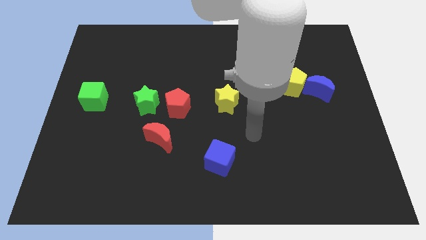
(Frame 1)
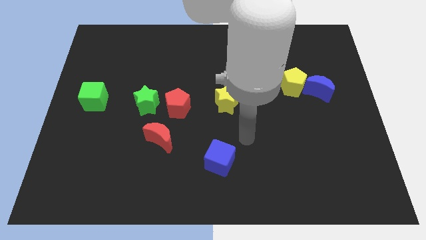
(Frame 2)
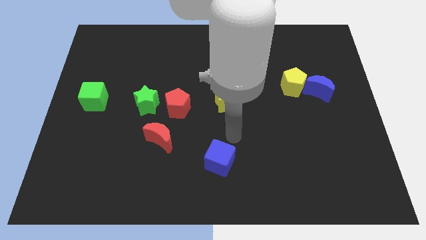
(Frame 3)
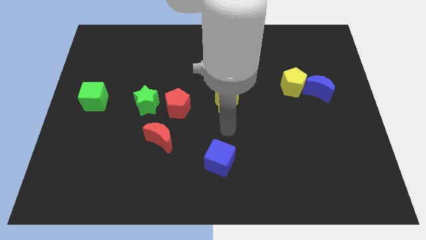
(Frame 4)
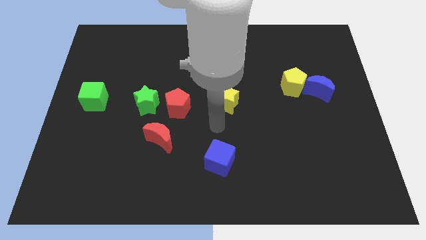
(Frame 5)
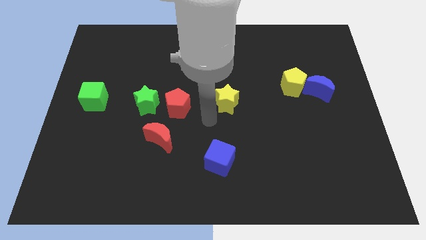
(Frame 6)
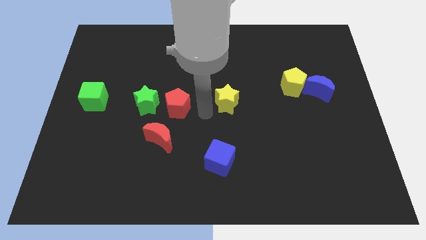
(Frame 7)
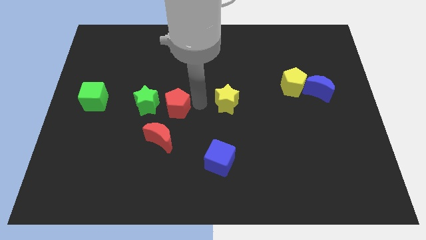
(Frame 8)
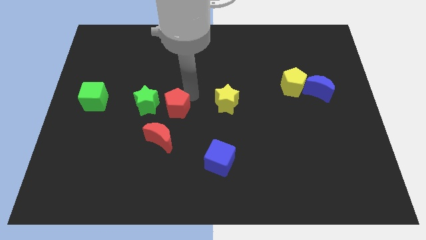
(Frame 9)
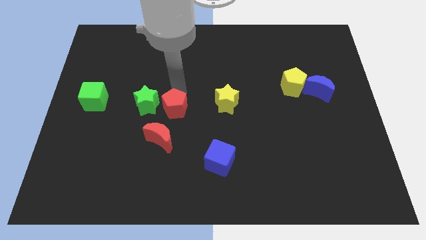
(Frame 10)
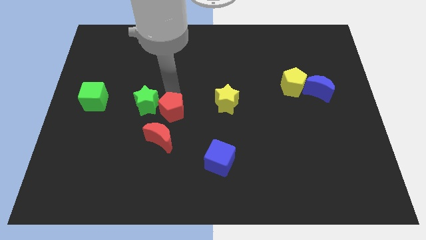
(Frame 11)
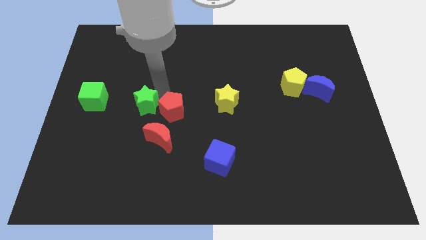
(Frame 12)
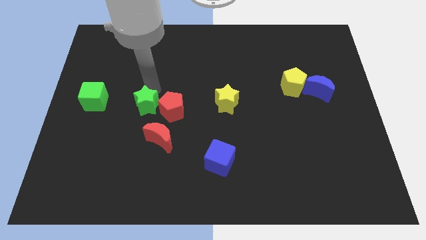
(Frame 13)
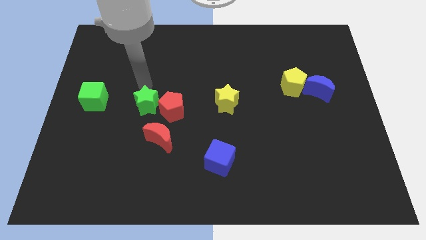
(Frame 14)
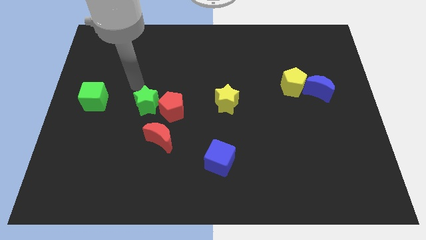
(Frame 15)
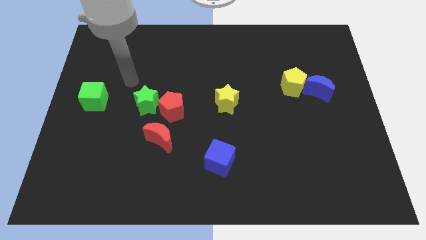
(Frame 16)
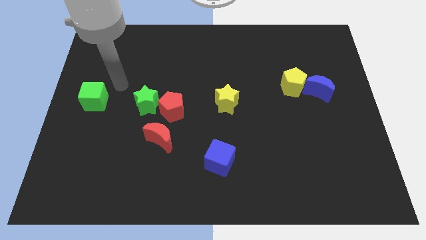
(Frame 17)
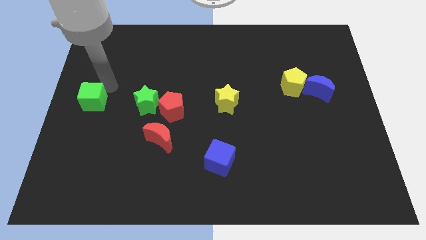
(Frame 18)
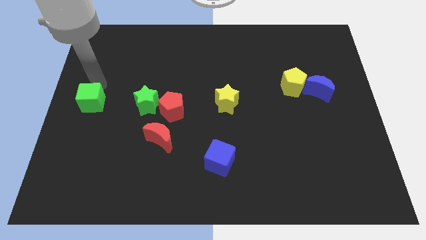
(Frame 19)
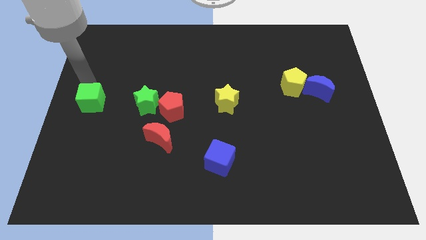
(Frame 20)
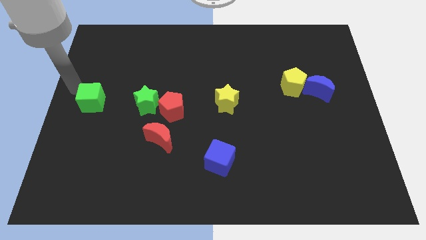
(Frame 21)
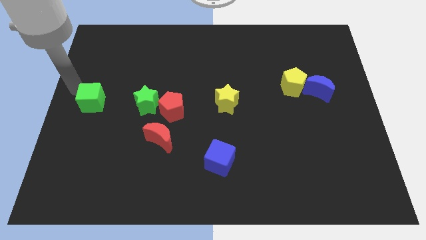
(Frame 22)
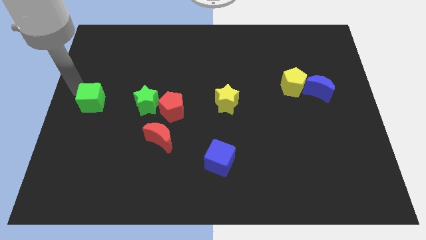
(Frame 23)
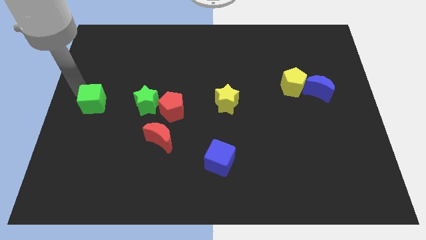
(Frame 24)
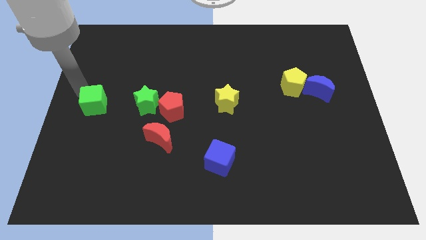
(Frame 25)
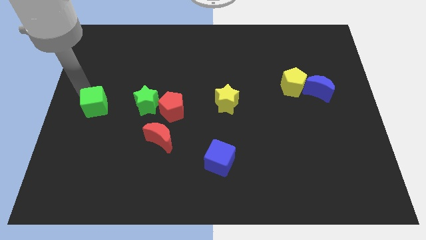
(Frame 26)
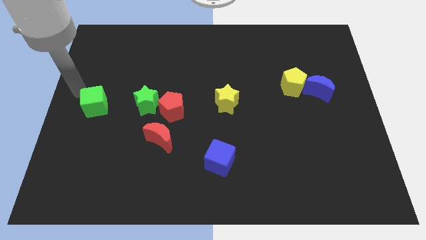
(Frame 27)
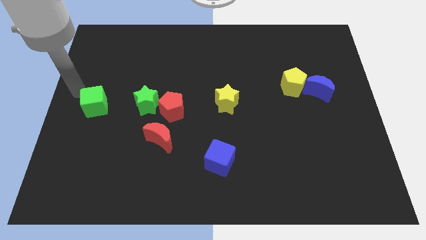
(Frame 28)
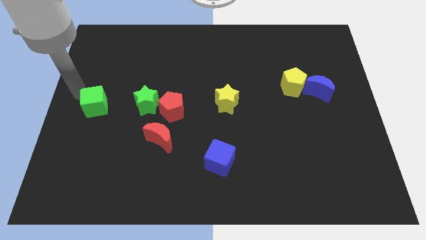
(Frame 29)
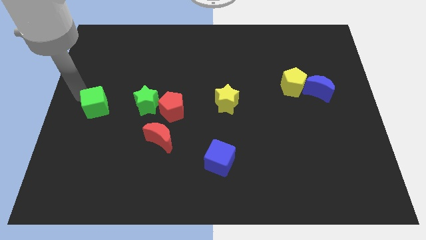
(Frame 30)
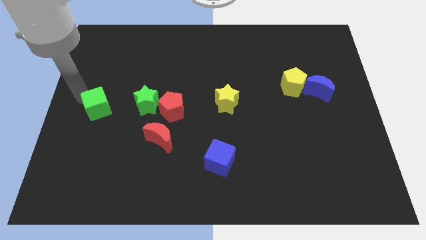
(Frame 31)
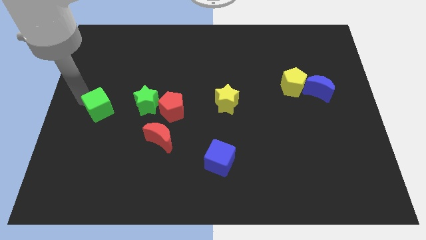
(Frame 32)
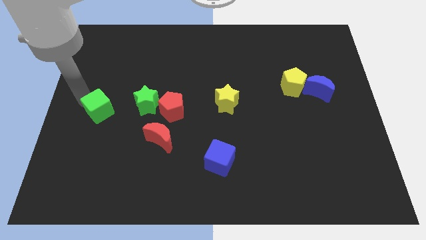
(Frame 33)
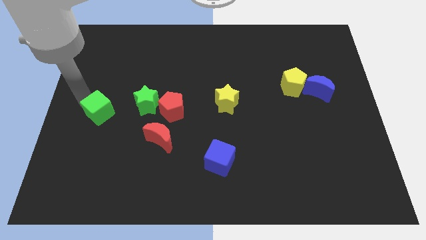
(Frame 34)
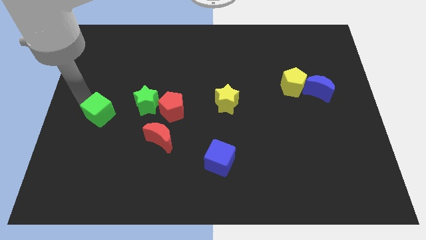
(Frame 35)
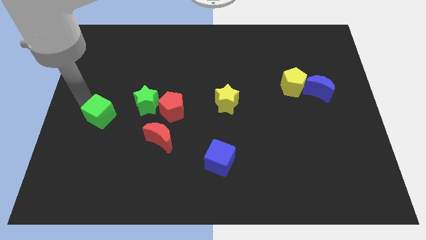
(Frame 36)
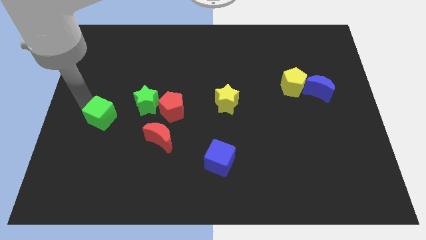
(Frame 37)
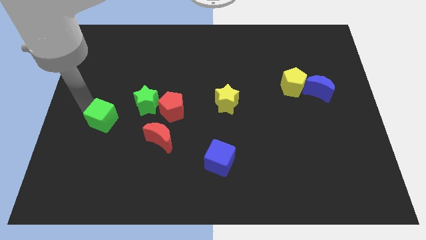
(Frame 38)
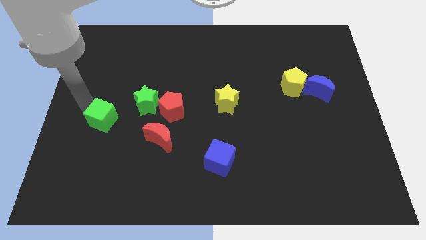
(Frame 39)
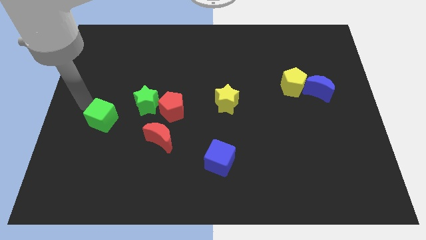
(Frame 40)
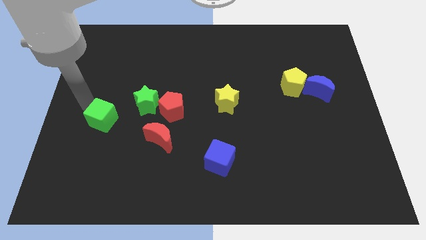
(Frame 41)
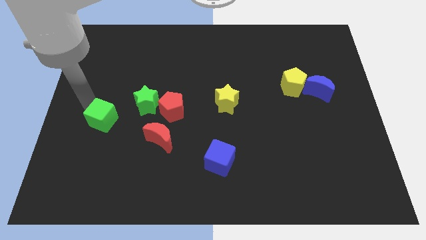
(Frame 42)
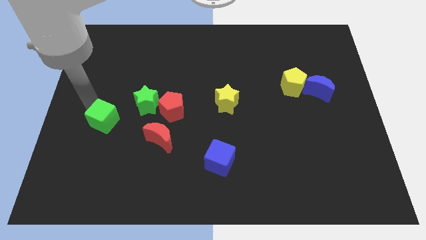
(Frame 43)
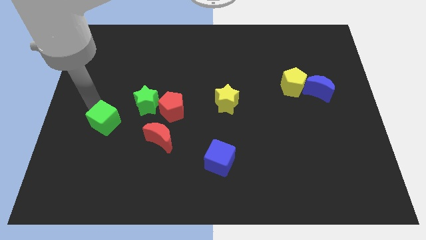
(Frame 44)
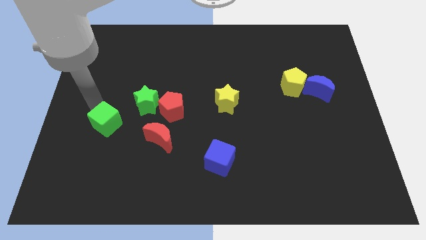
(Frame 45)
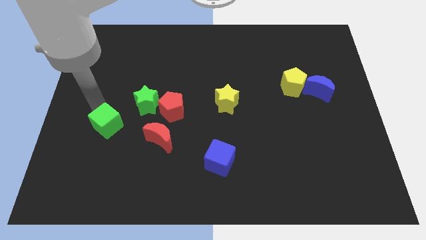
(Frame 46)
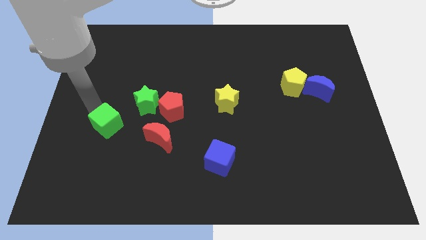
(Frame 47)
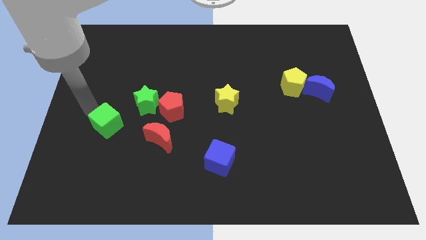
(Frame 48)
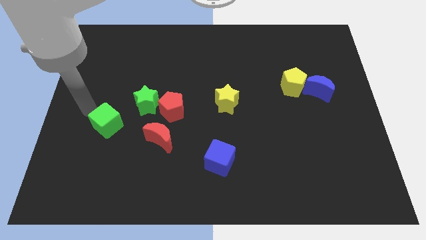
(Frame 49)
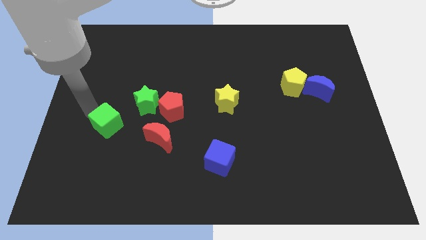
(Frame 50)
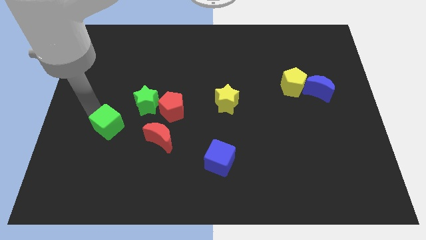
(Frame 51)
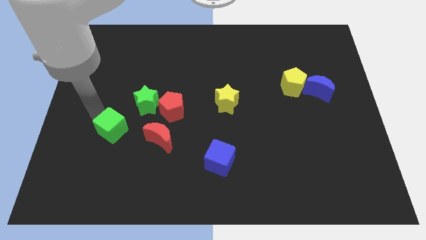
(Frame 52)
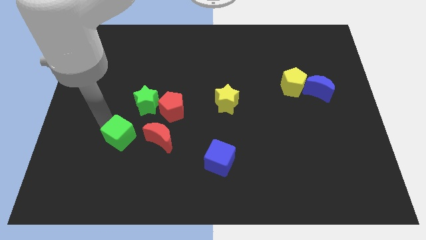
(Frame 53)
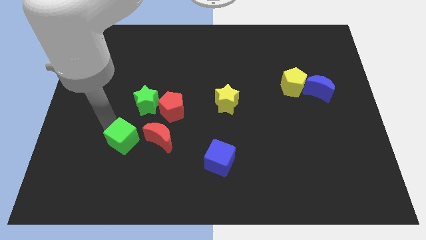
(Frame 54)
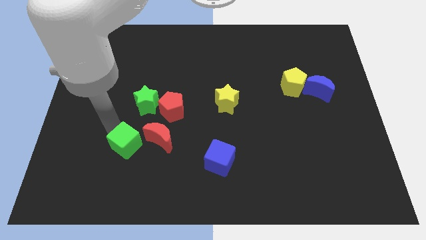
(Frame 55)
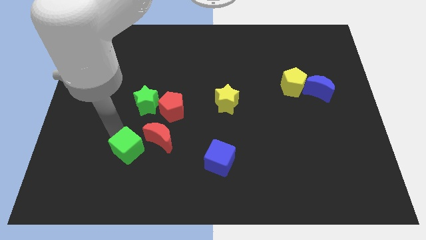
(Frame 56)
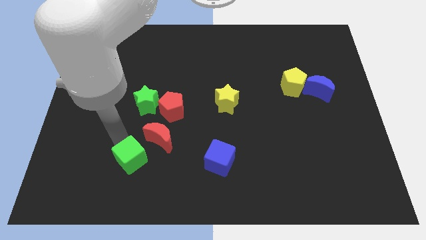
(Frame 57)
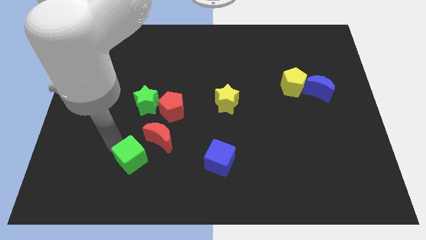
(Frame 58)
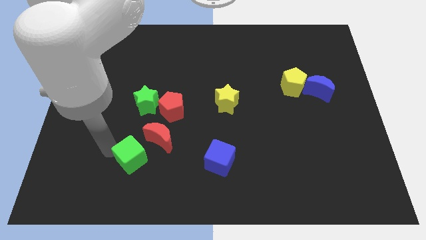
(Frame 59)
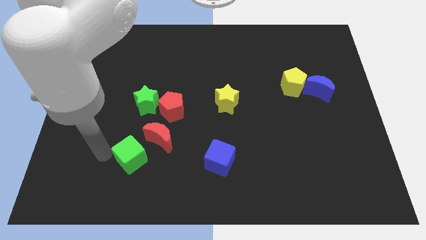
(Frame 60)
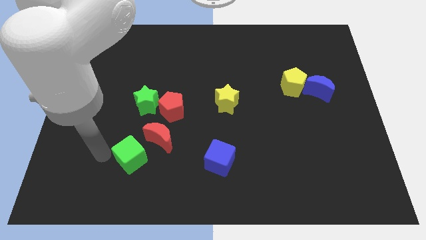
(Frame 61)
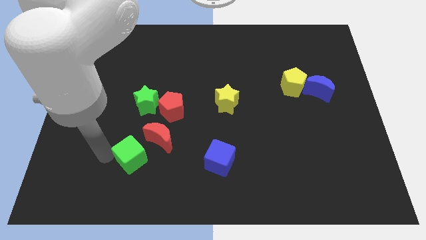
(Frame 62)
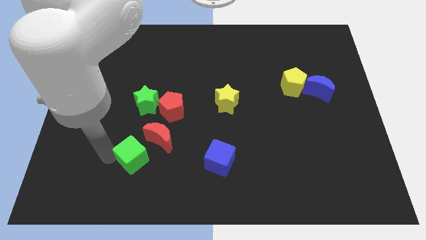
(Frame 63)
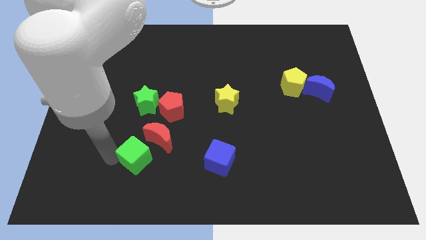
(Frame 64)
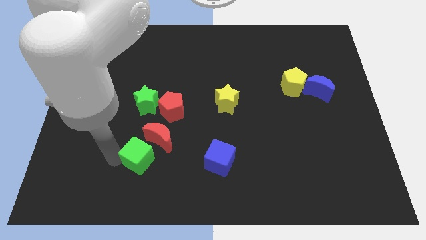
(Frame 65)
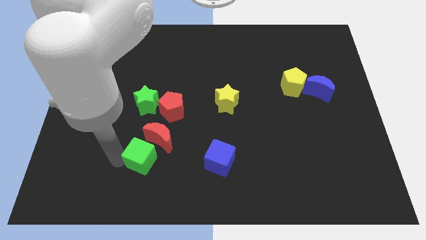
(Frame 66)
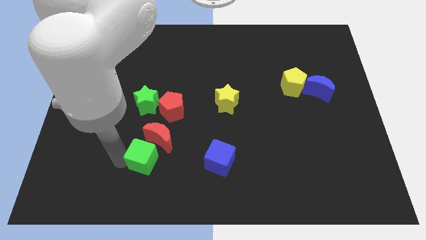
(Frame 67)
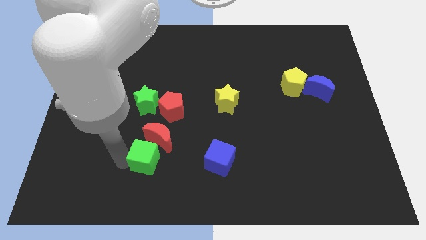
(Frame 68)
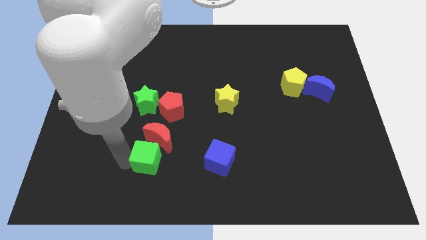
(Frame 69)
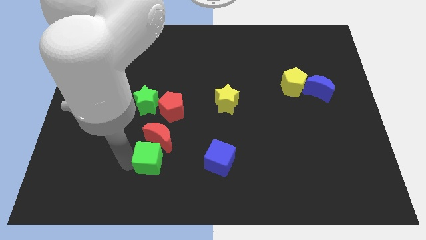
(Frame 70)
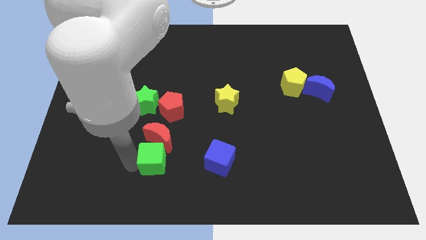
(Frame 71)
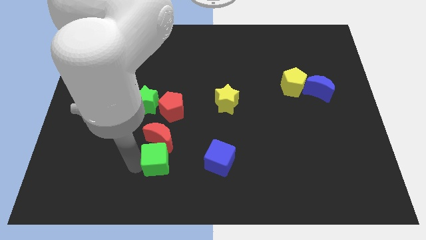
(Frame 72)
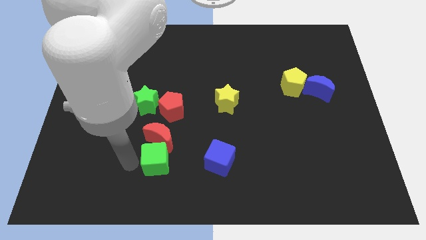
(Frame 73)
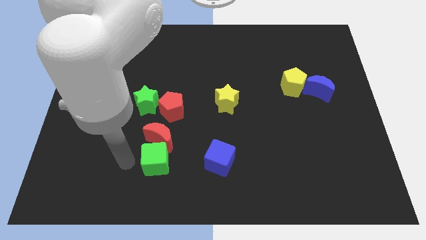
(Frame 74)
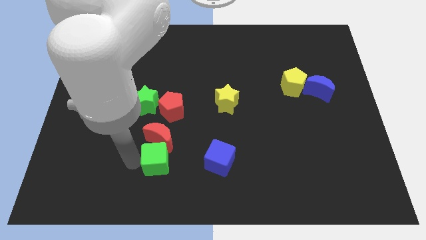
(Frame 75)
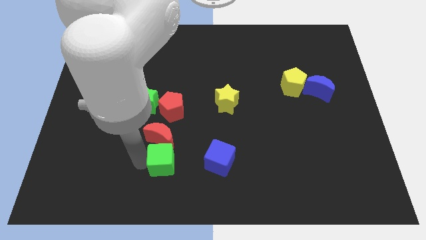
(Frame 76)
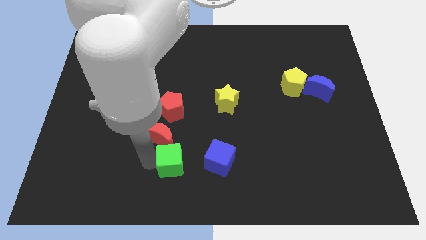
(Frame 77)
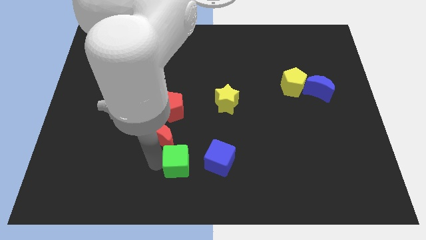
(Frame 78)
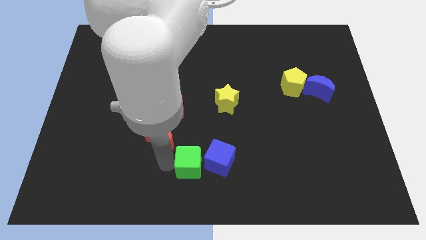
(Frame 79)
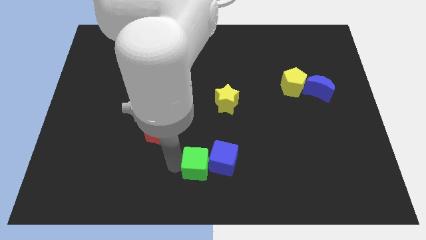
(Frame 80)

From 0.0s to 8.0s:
slide the green cube towards the blue cube
